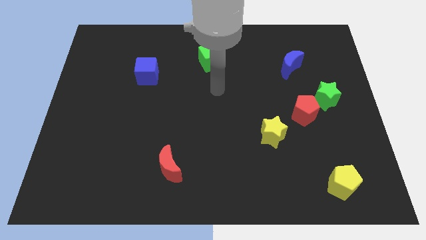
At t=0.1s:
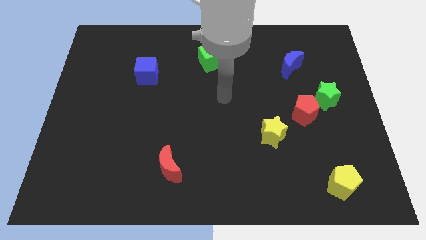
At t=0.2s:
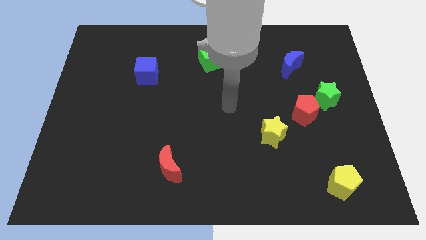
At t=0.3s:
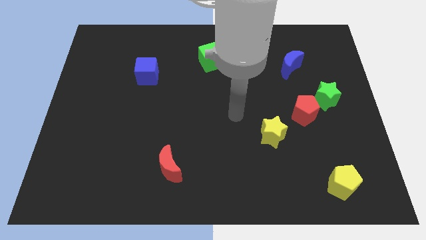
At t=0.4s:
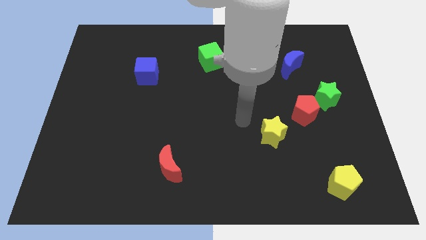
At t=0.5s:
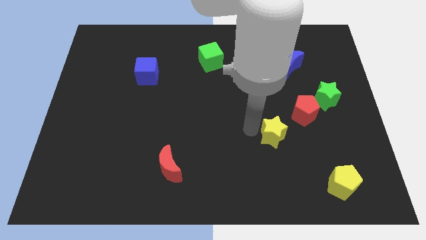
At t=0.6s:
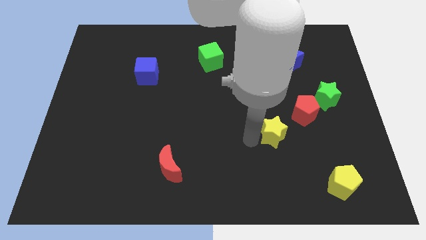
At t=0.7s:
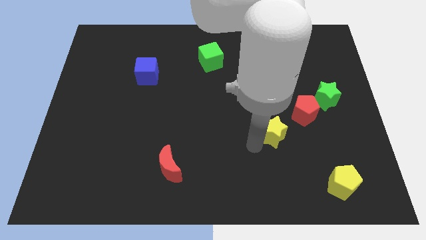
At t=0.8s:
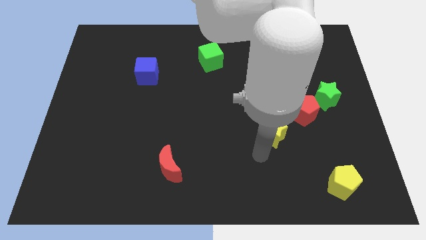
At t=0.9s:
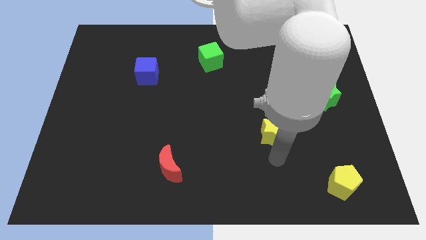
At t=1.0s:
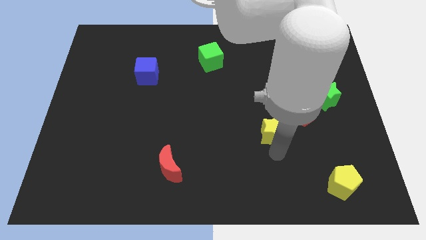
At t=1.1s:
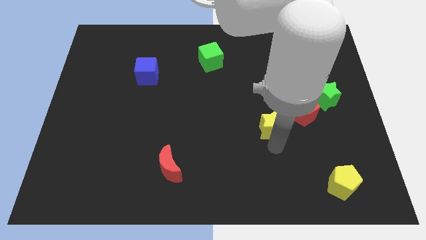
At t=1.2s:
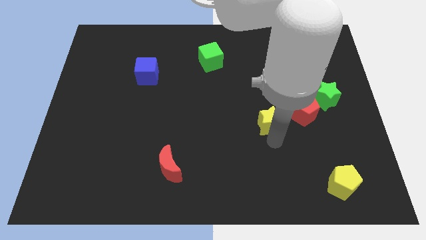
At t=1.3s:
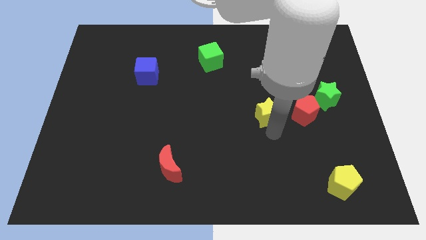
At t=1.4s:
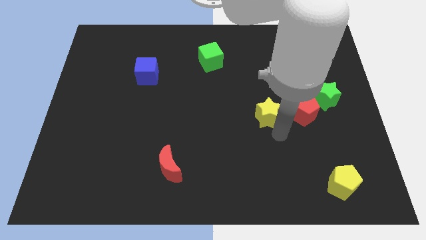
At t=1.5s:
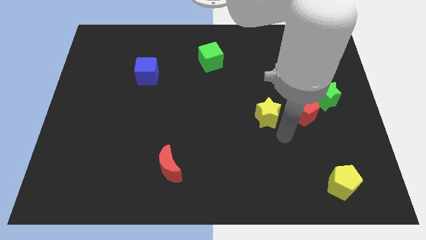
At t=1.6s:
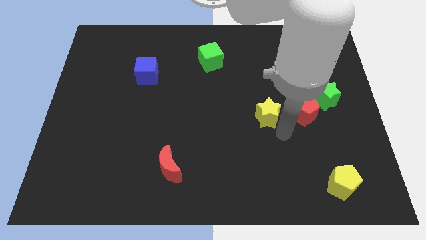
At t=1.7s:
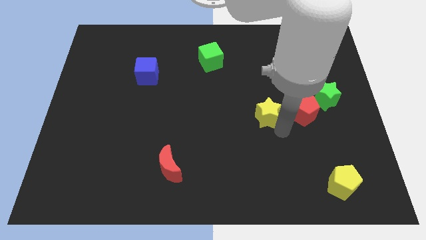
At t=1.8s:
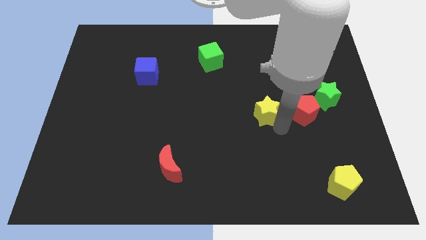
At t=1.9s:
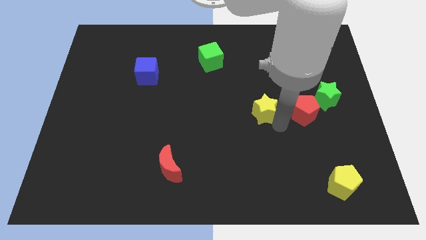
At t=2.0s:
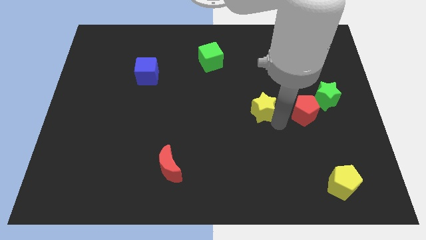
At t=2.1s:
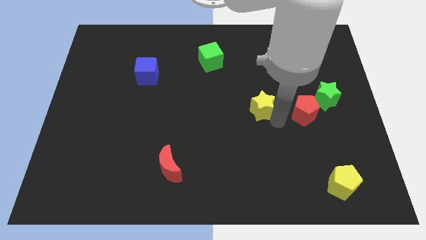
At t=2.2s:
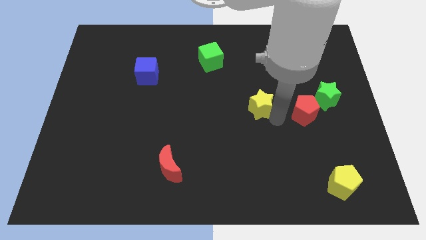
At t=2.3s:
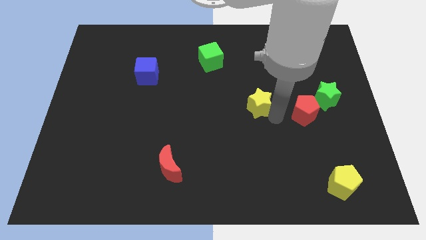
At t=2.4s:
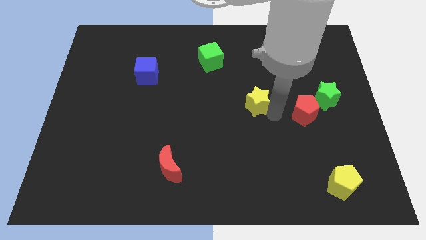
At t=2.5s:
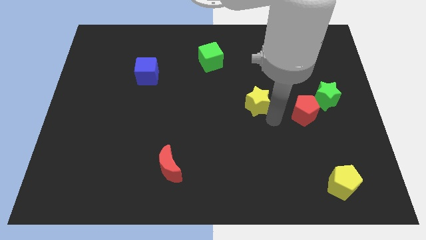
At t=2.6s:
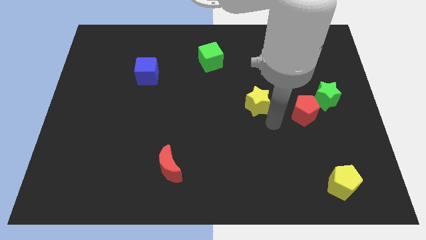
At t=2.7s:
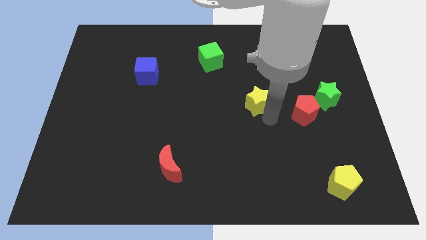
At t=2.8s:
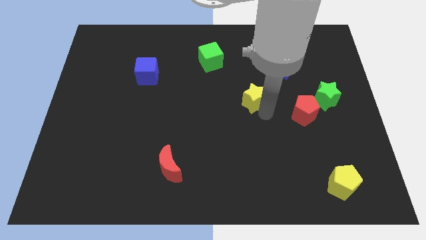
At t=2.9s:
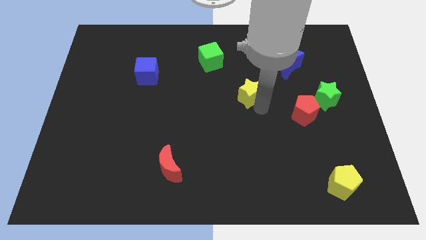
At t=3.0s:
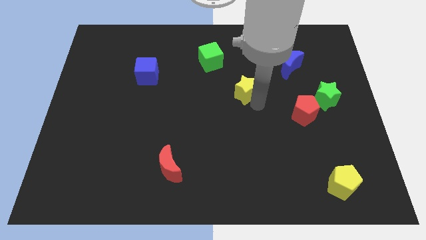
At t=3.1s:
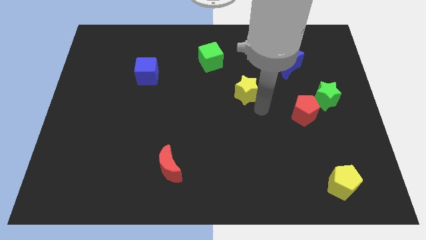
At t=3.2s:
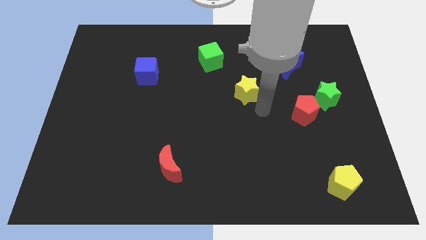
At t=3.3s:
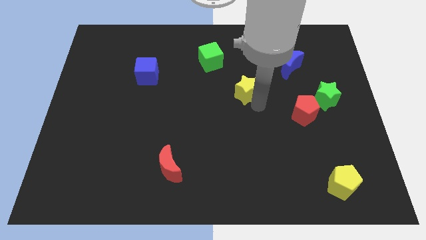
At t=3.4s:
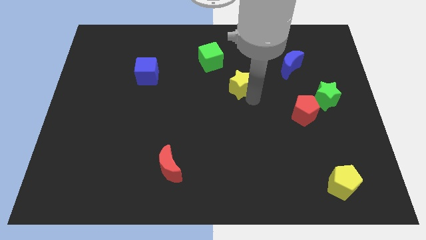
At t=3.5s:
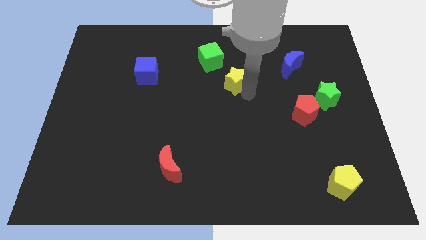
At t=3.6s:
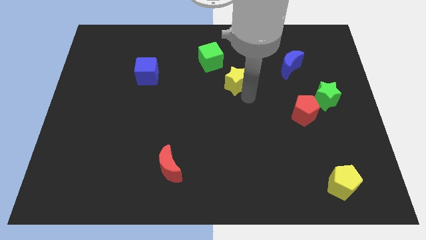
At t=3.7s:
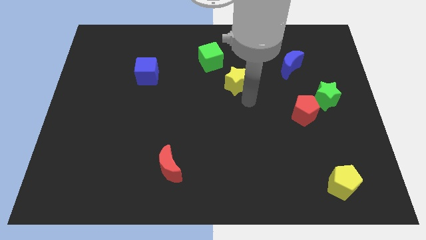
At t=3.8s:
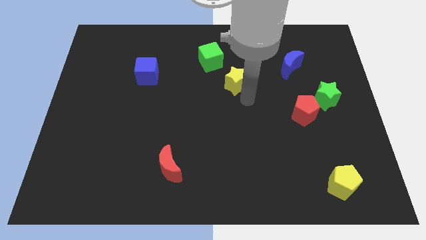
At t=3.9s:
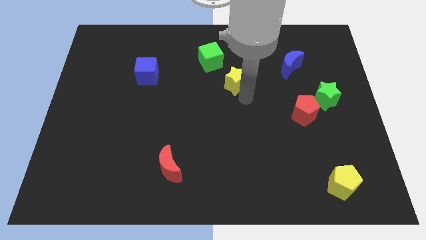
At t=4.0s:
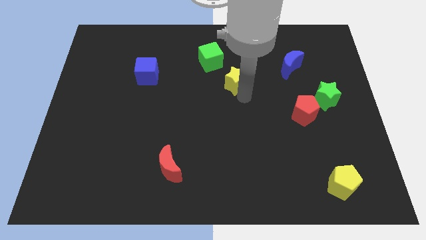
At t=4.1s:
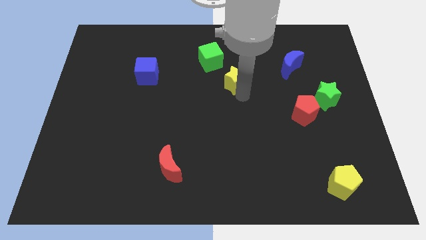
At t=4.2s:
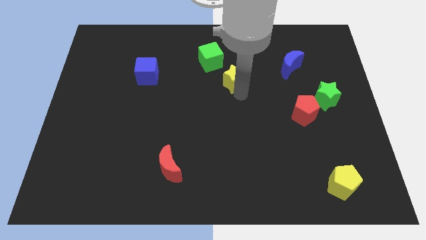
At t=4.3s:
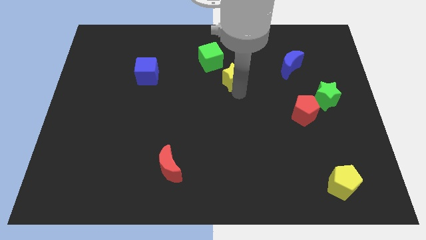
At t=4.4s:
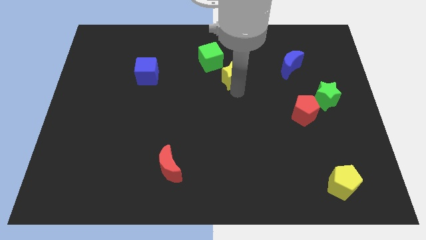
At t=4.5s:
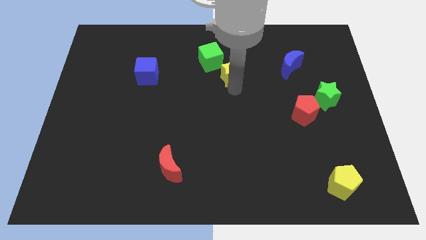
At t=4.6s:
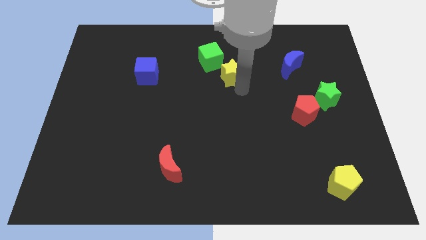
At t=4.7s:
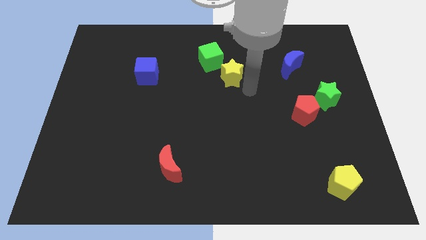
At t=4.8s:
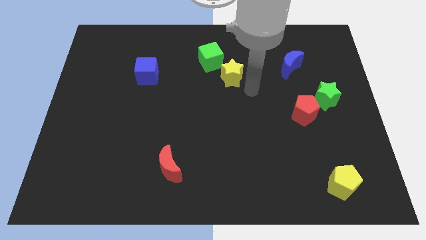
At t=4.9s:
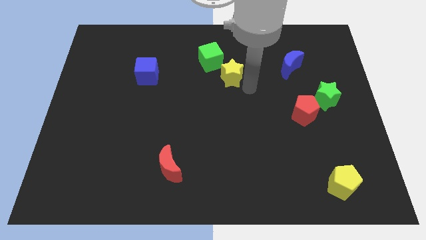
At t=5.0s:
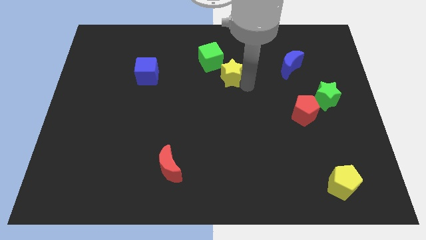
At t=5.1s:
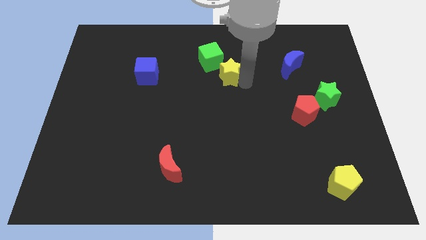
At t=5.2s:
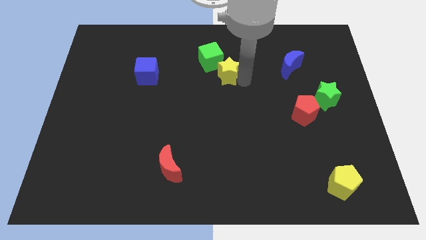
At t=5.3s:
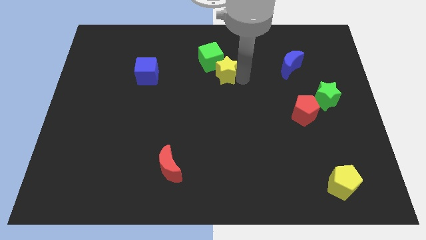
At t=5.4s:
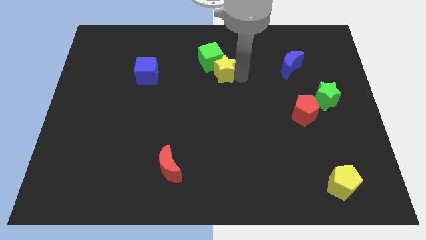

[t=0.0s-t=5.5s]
push the yellow star close to the green cube

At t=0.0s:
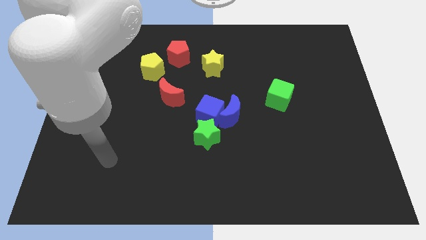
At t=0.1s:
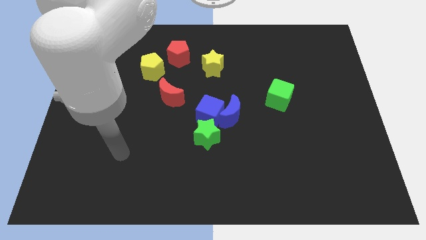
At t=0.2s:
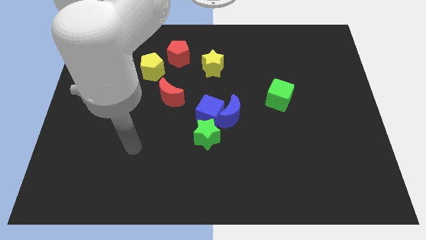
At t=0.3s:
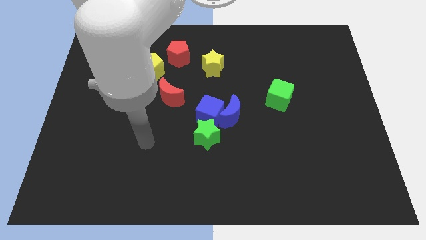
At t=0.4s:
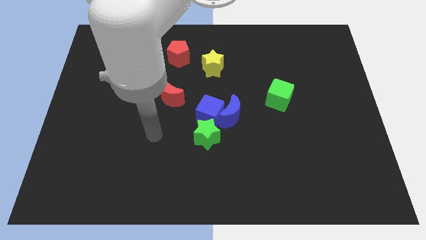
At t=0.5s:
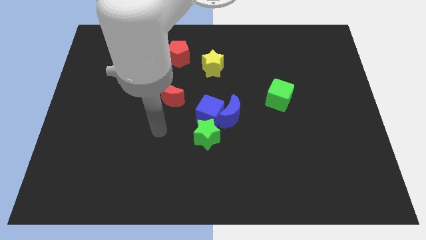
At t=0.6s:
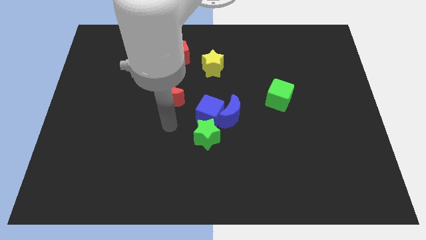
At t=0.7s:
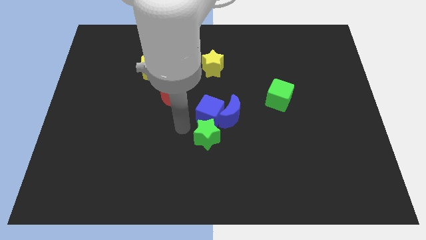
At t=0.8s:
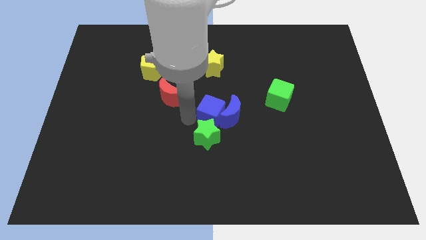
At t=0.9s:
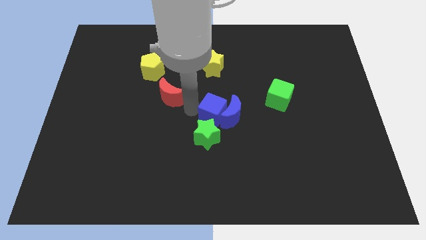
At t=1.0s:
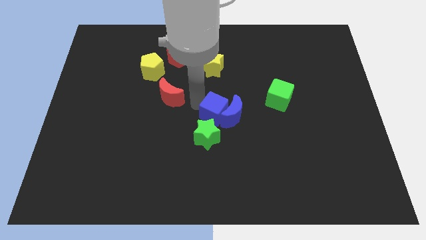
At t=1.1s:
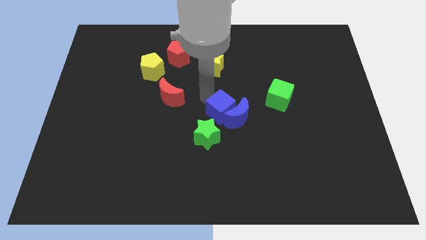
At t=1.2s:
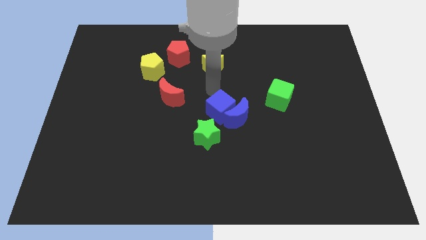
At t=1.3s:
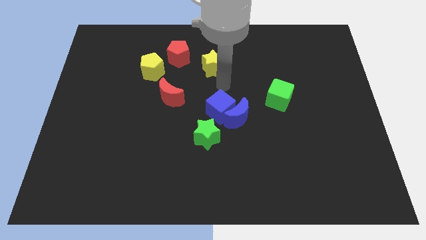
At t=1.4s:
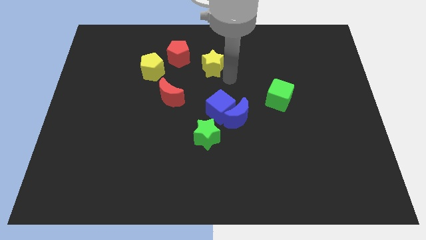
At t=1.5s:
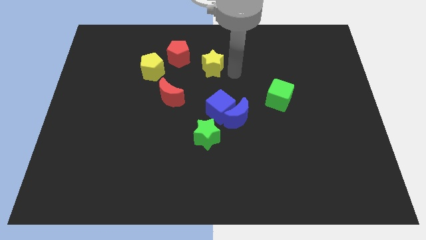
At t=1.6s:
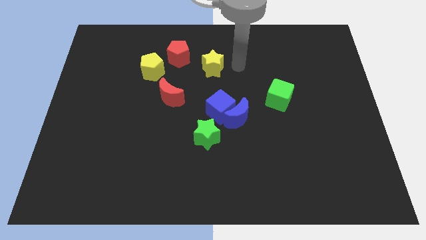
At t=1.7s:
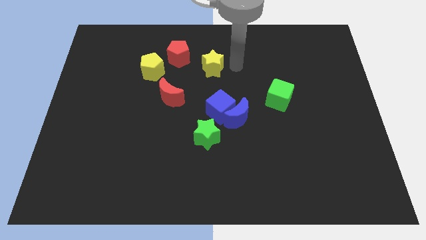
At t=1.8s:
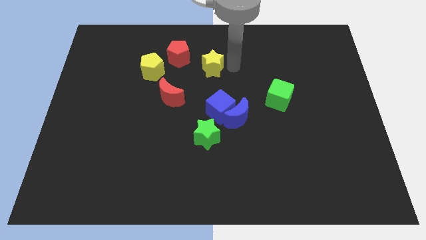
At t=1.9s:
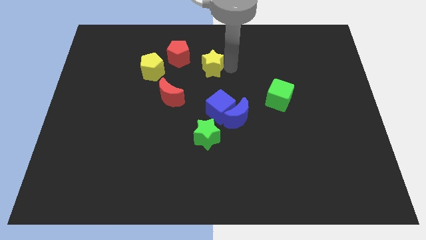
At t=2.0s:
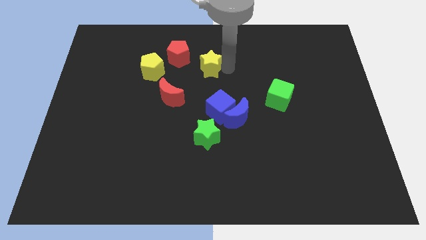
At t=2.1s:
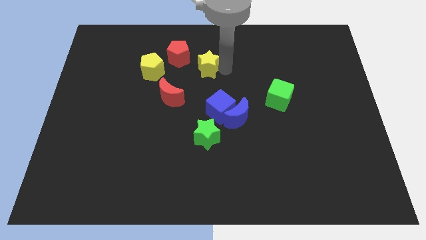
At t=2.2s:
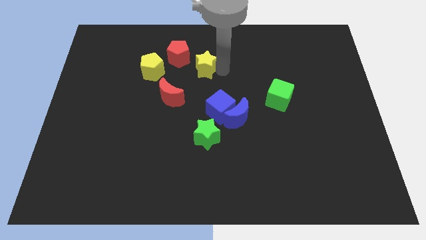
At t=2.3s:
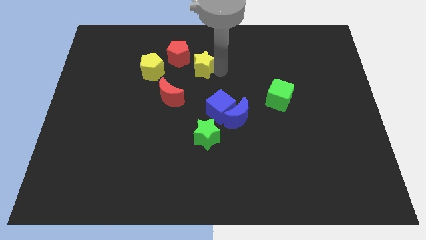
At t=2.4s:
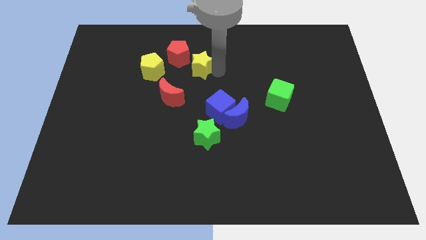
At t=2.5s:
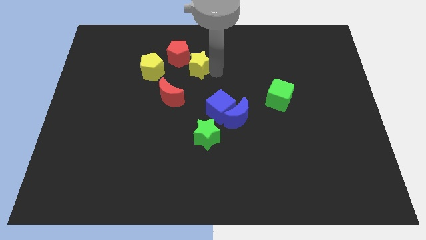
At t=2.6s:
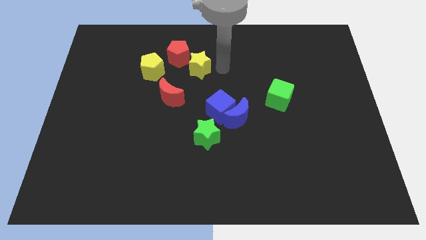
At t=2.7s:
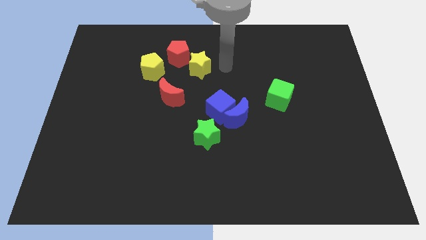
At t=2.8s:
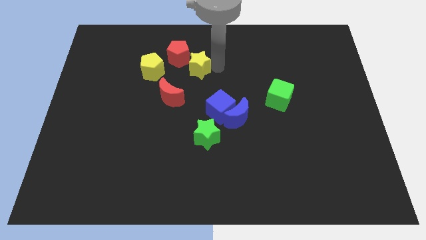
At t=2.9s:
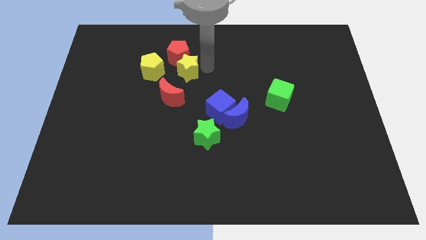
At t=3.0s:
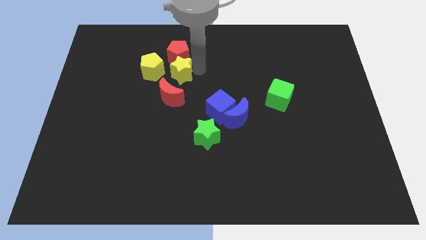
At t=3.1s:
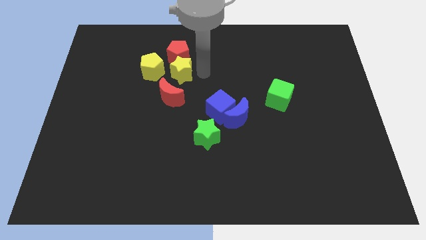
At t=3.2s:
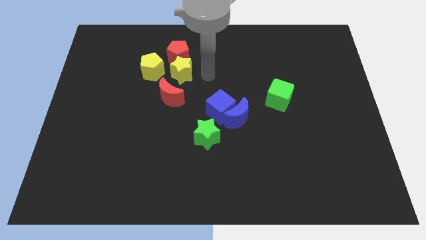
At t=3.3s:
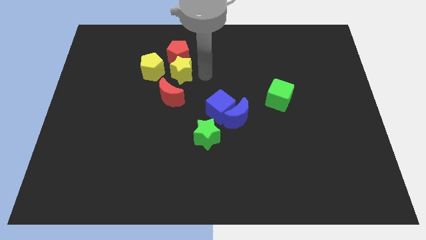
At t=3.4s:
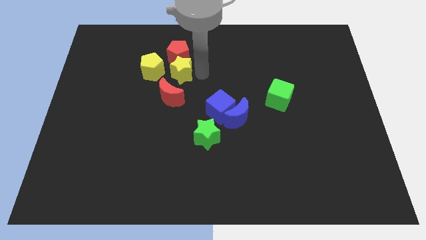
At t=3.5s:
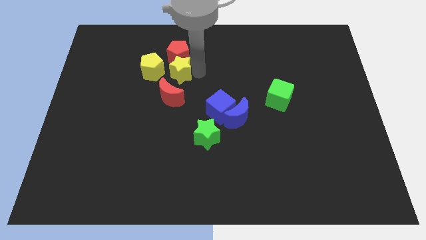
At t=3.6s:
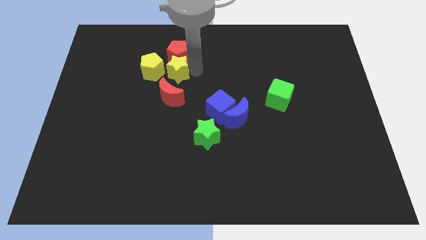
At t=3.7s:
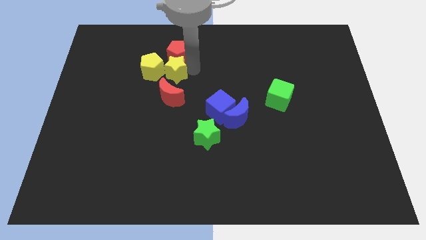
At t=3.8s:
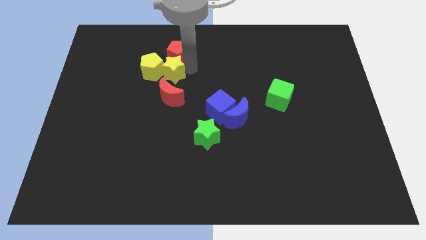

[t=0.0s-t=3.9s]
move the yellow star to the yellow pentagon
